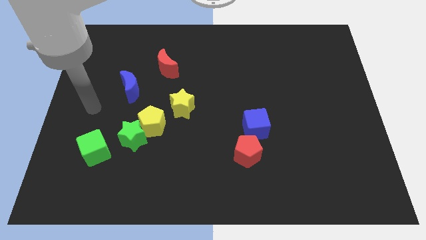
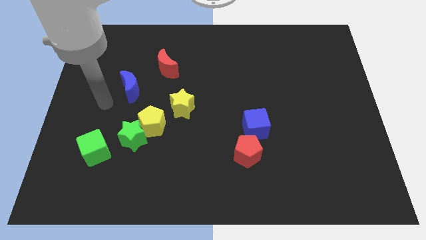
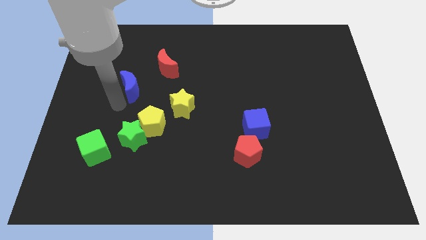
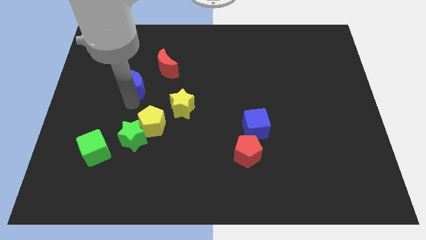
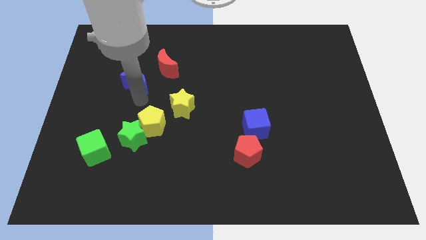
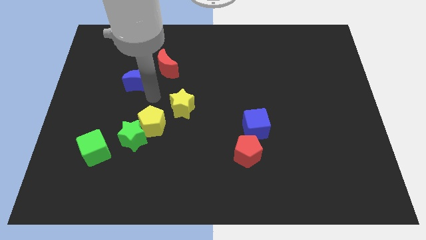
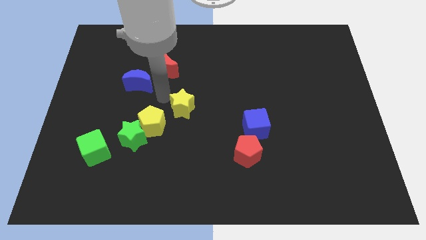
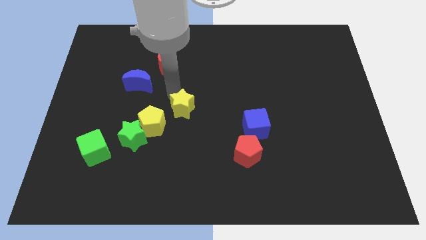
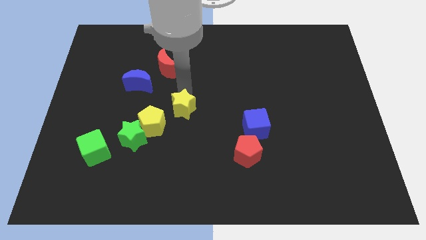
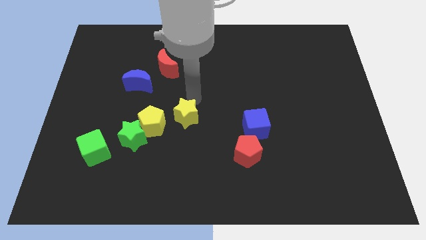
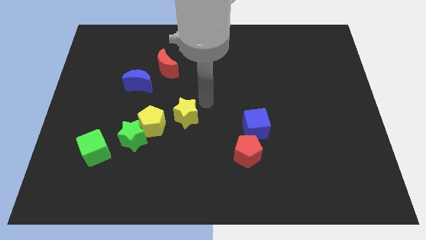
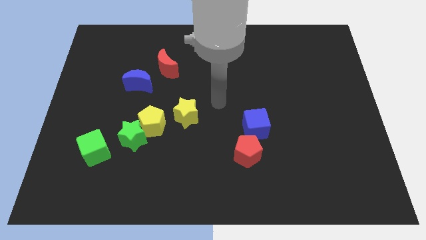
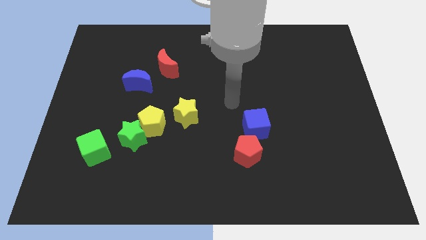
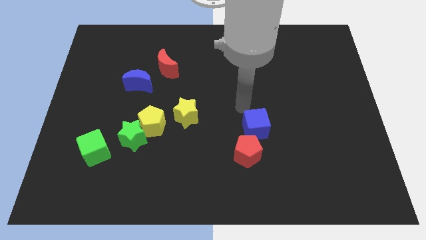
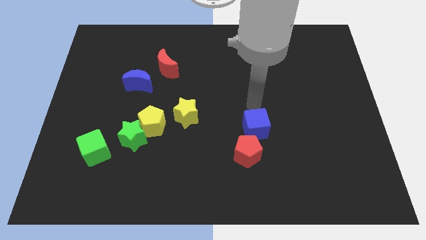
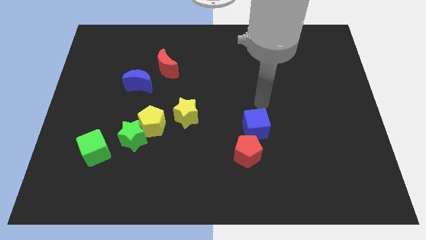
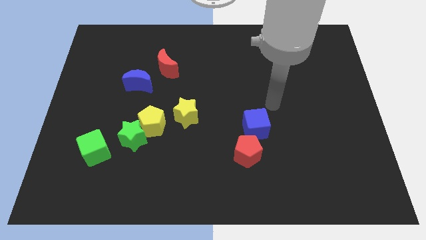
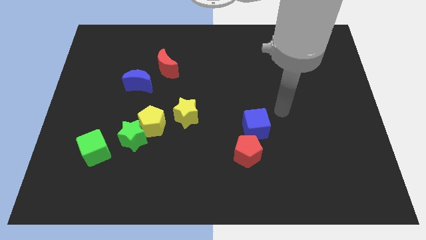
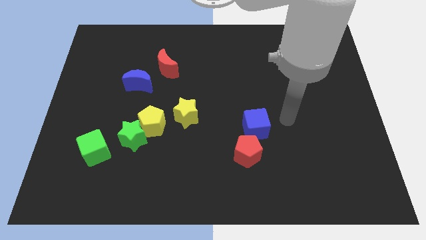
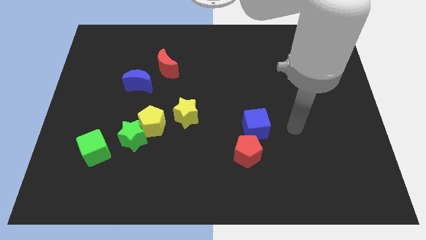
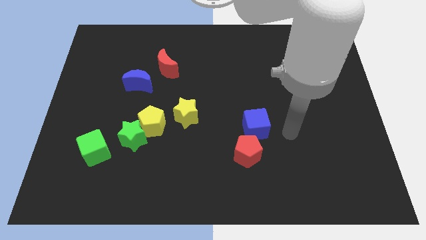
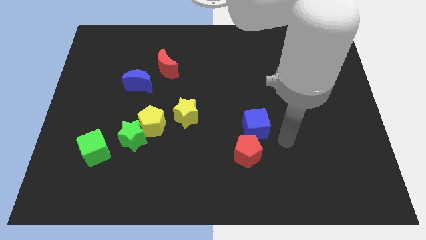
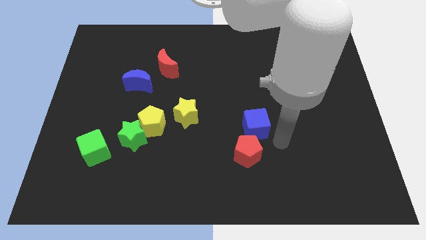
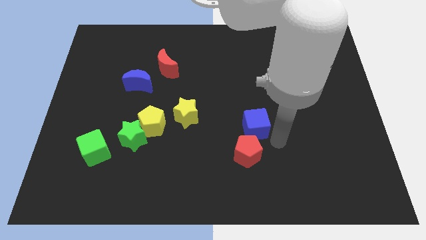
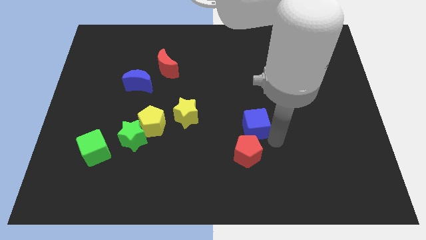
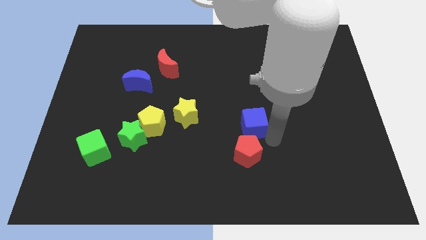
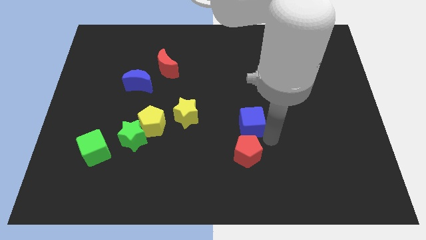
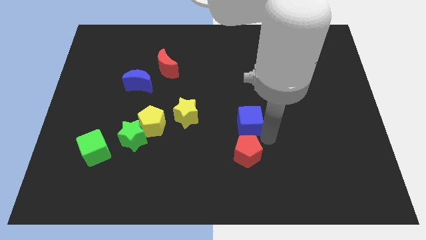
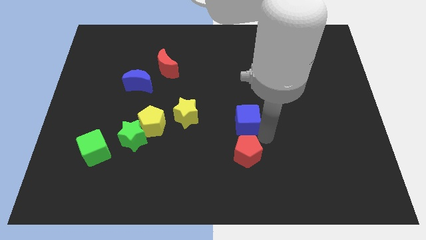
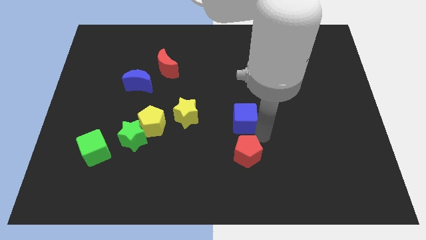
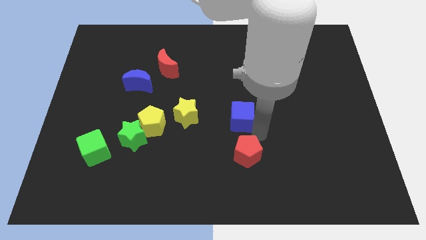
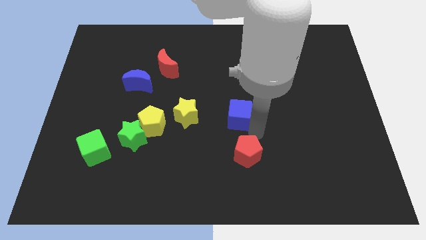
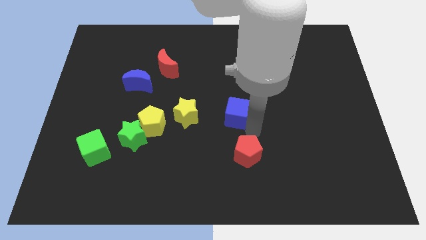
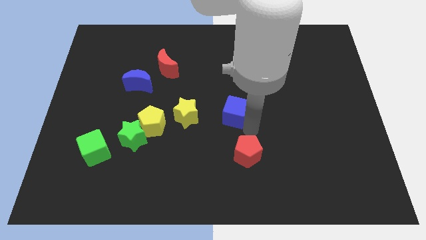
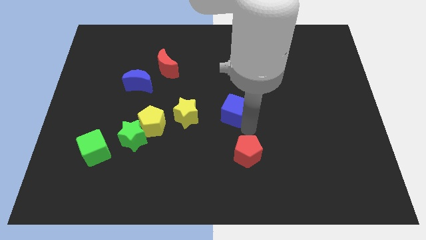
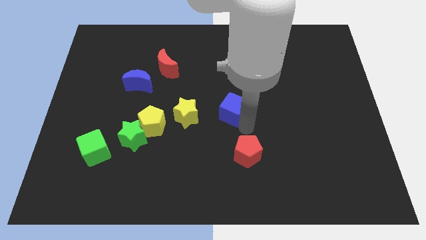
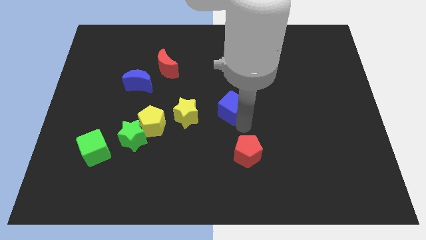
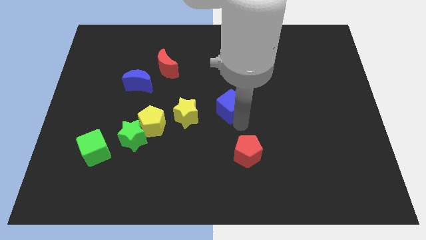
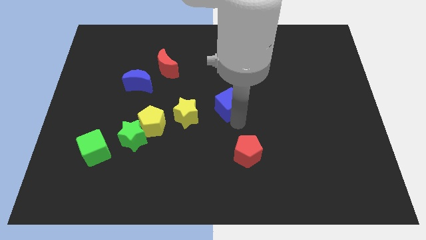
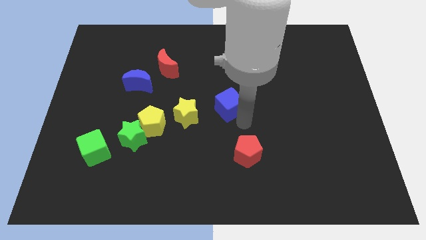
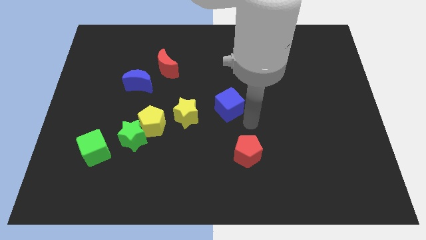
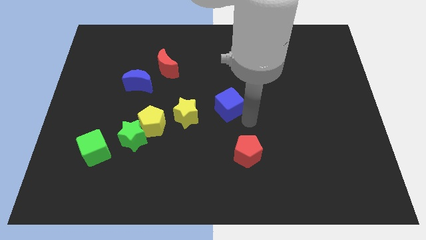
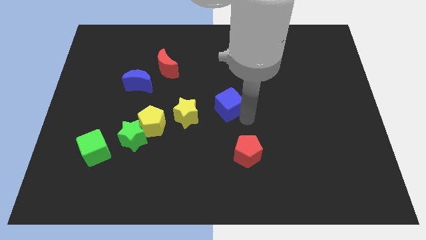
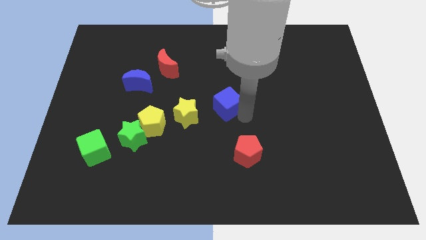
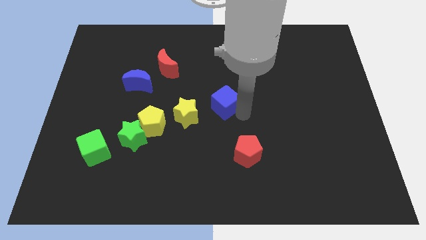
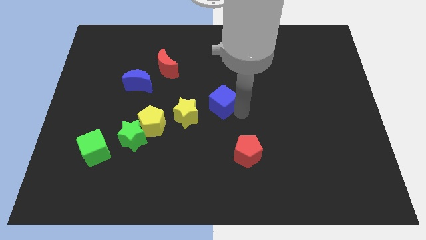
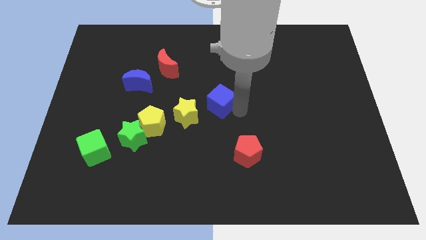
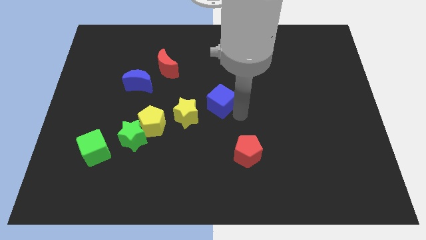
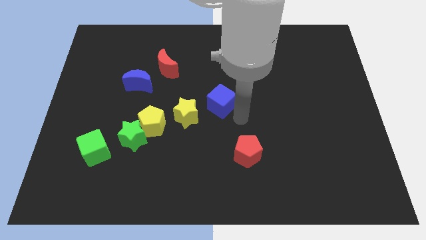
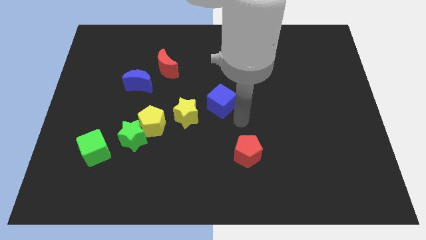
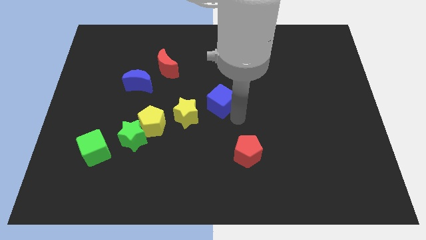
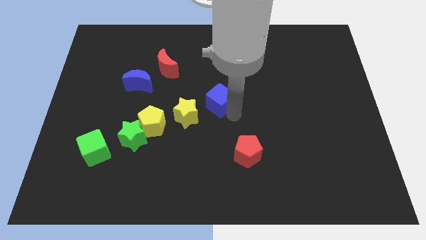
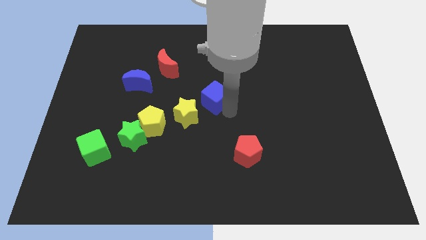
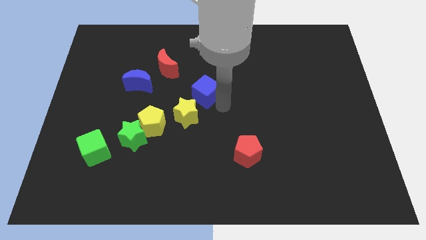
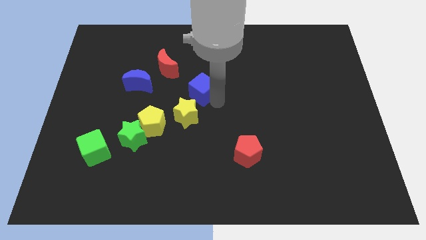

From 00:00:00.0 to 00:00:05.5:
move the blue cube to the bottom right side of the red moon

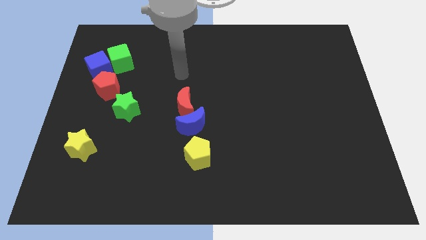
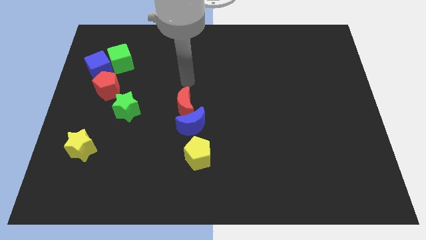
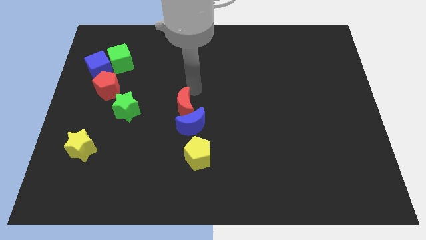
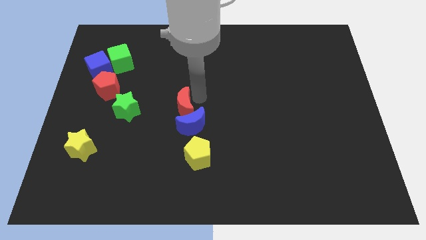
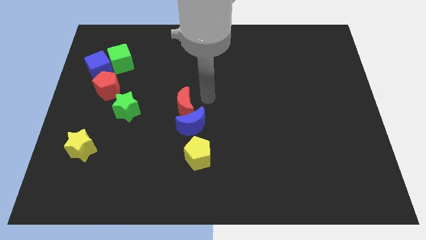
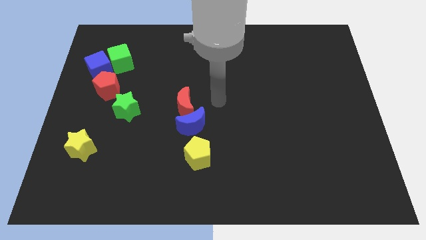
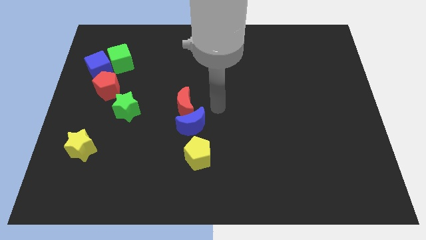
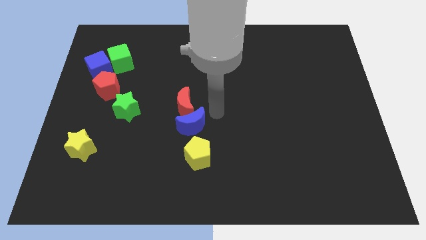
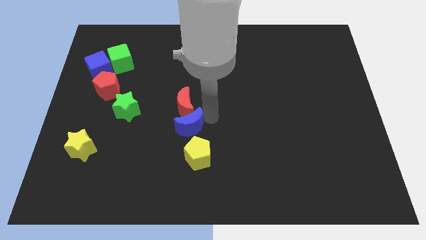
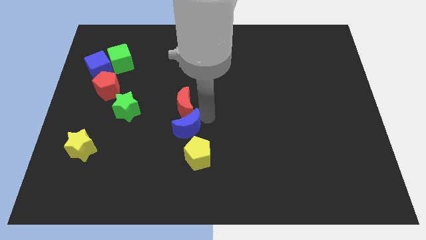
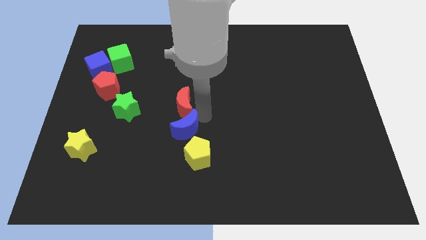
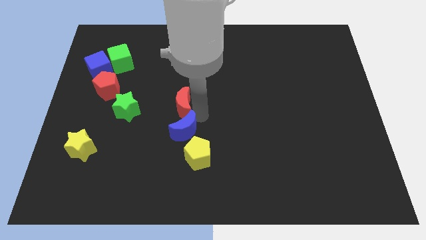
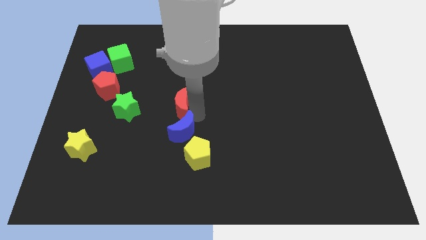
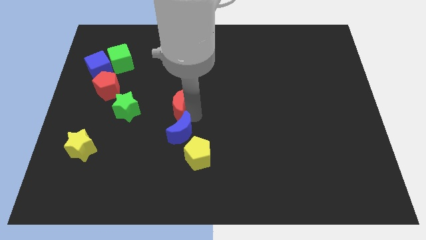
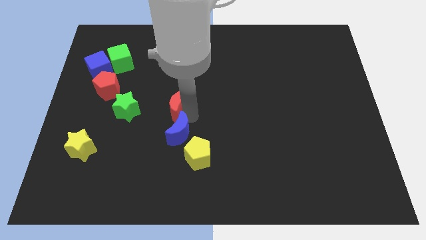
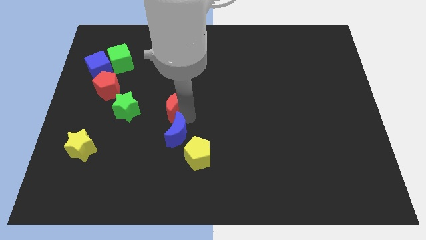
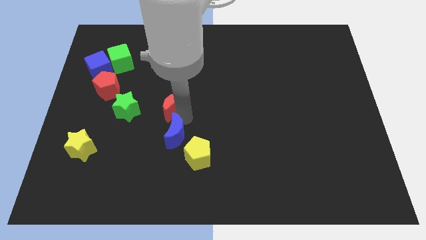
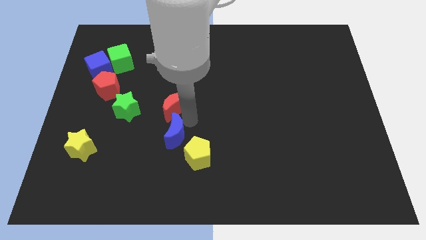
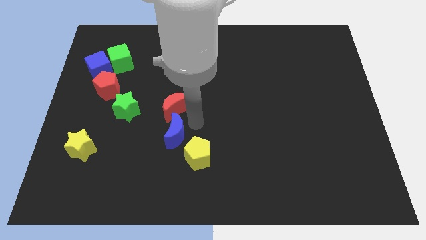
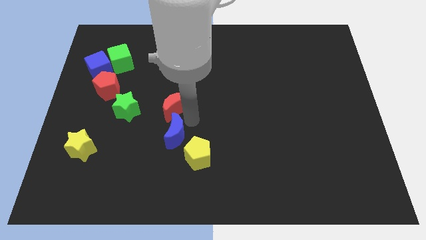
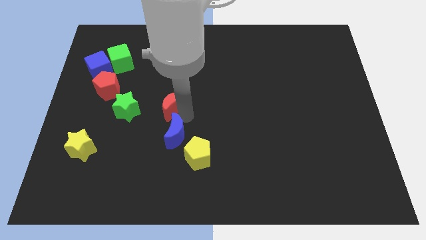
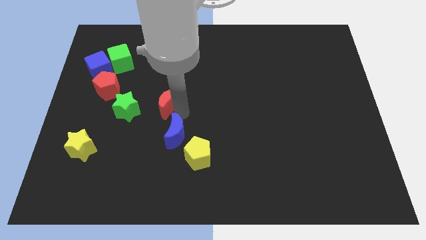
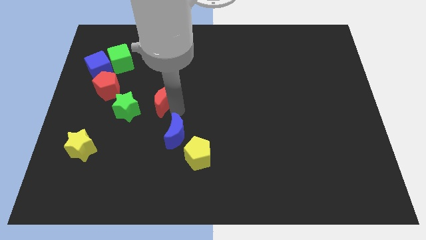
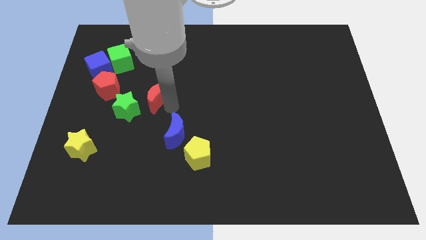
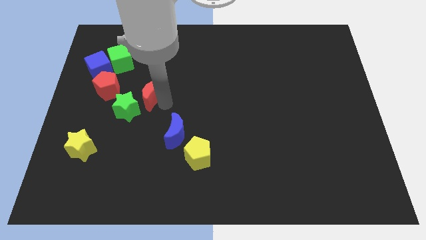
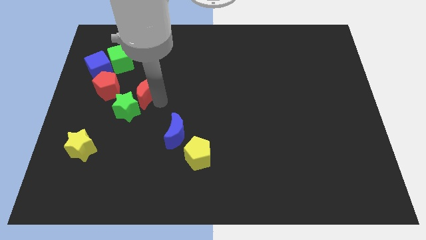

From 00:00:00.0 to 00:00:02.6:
push the red moon above the green star
